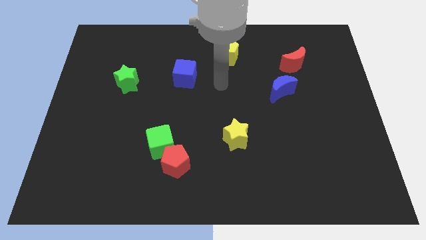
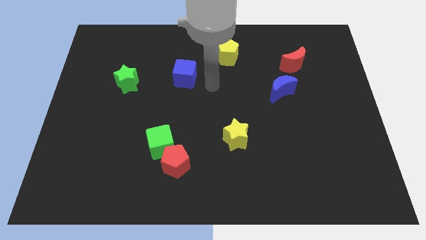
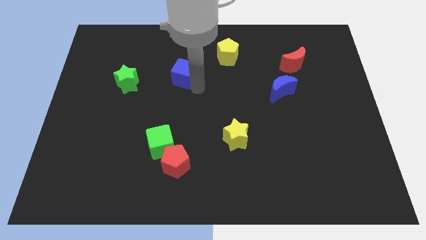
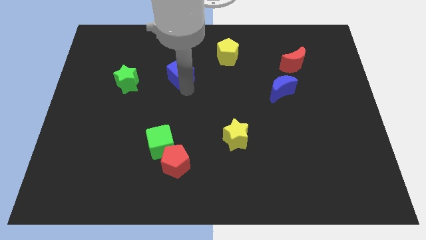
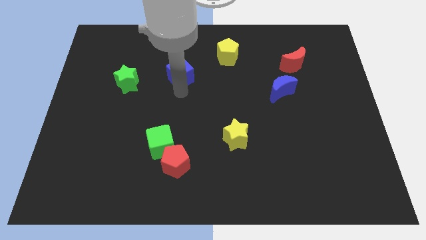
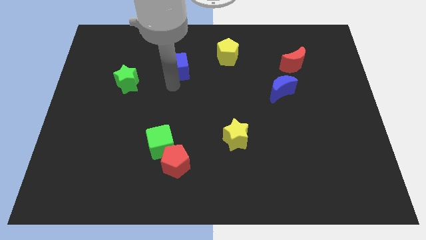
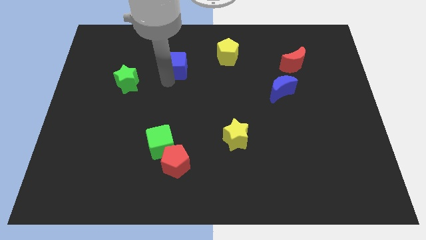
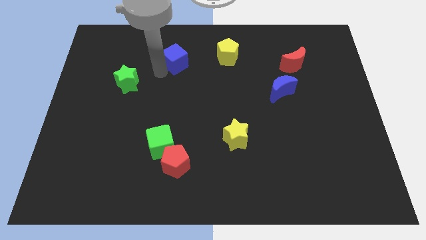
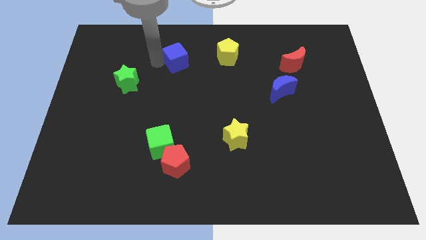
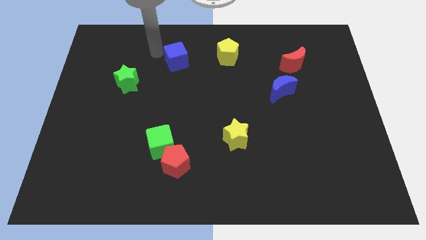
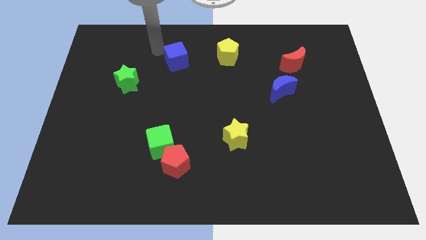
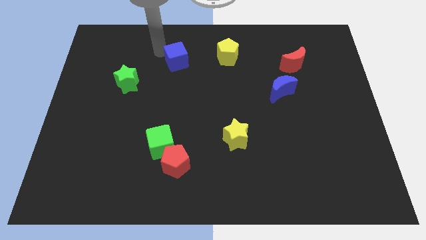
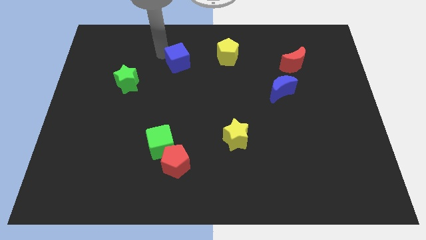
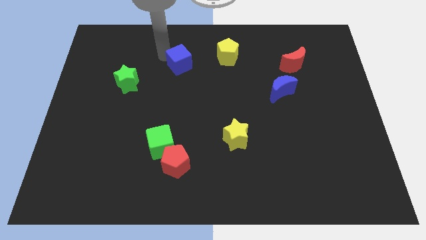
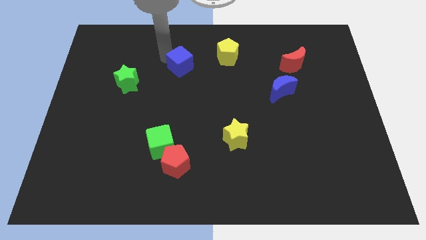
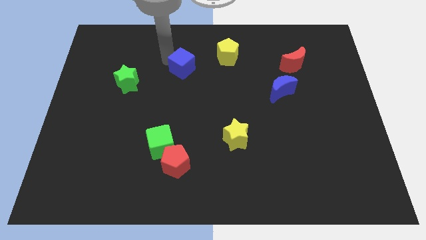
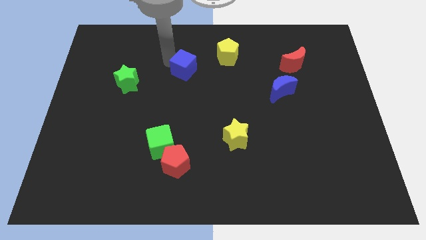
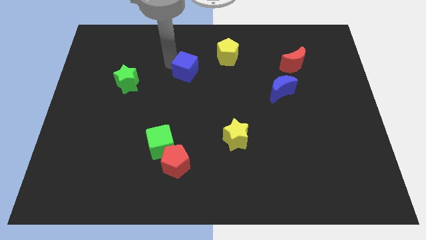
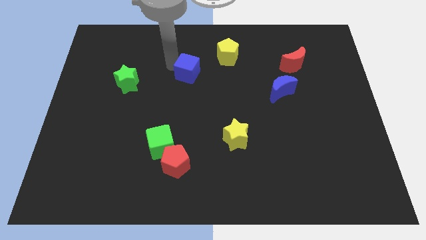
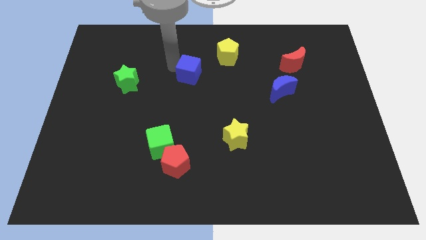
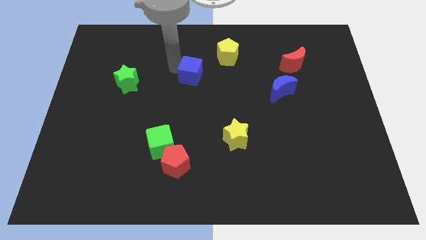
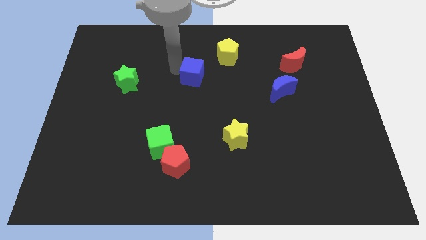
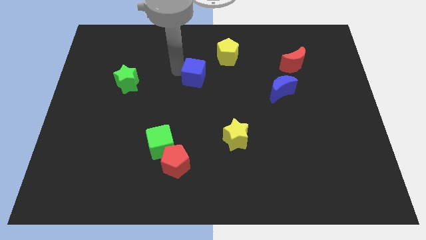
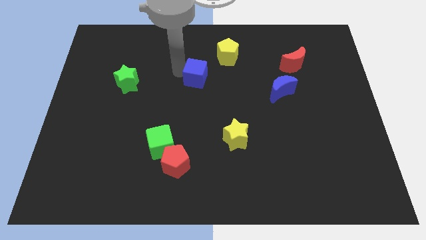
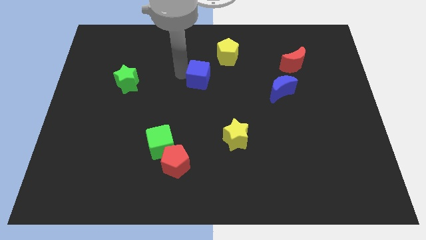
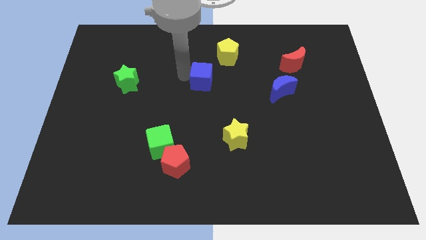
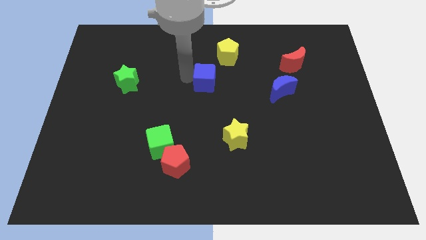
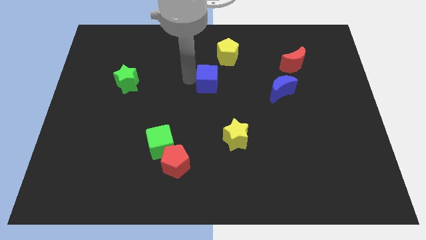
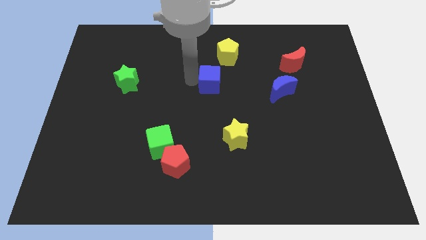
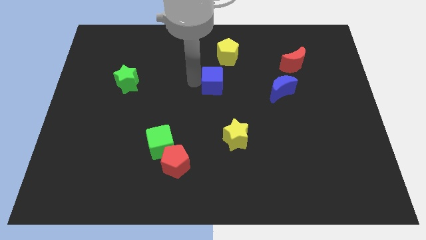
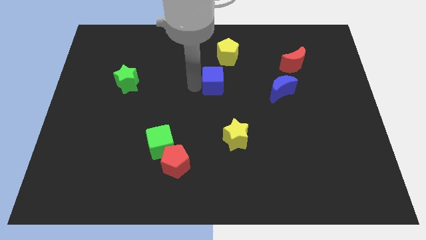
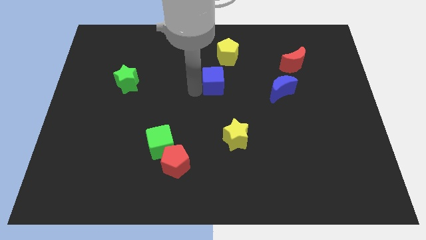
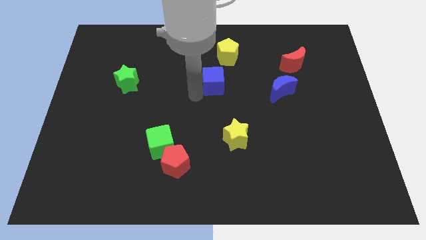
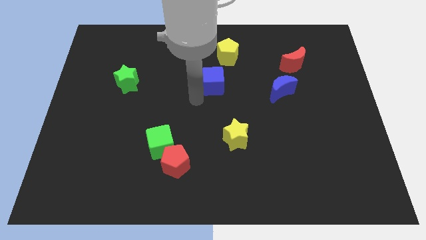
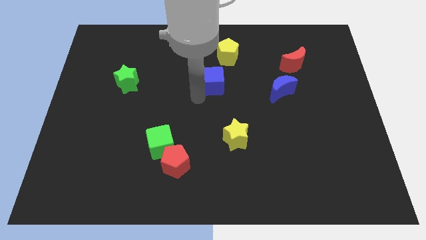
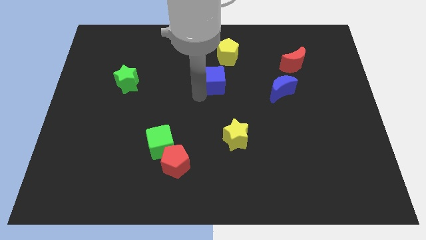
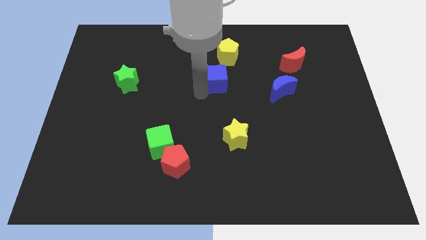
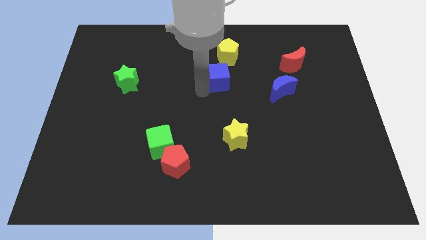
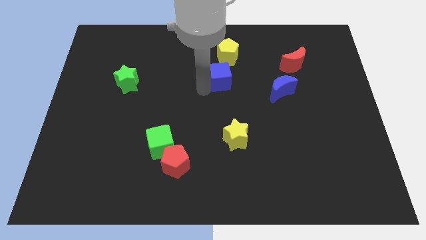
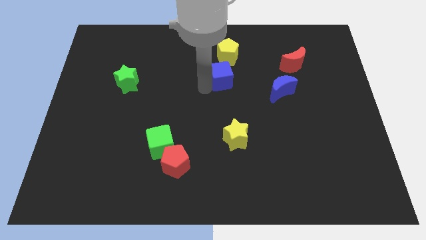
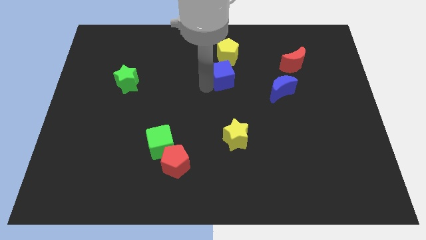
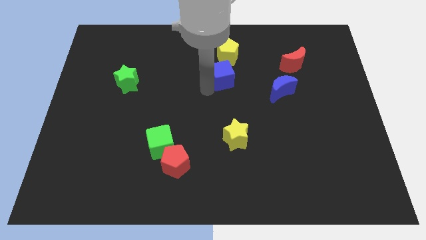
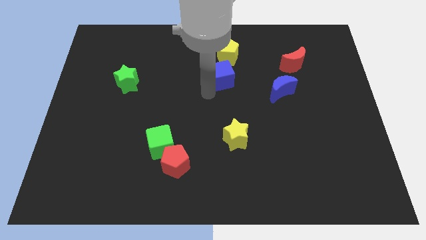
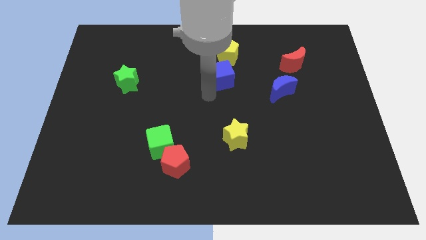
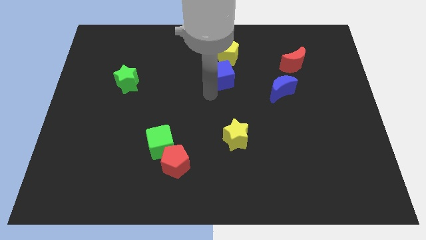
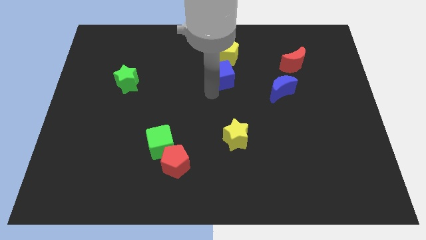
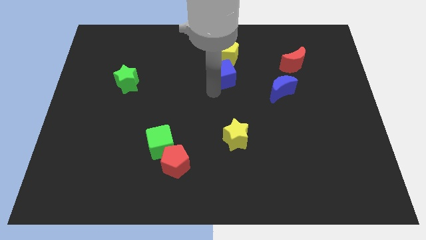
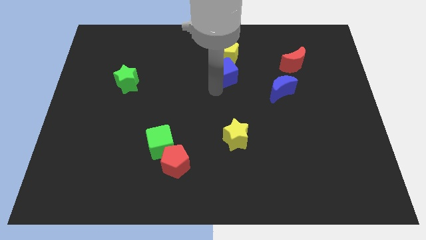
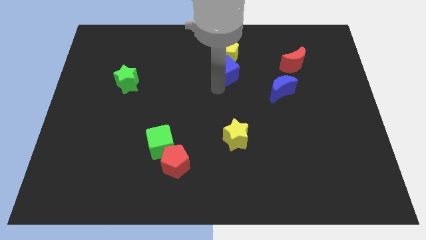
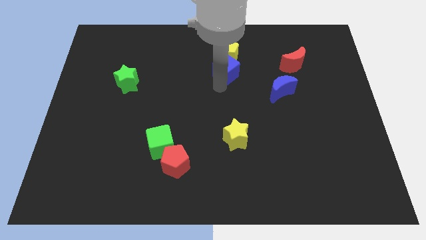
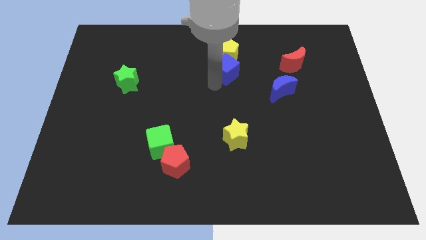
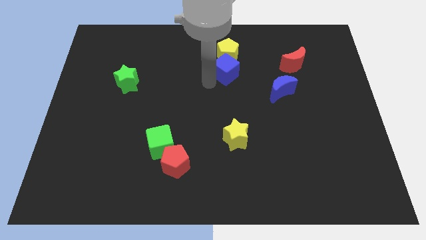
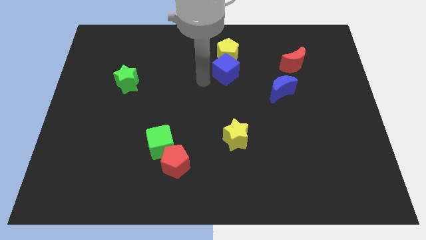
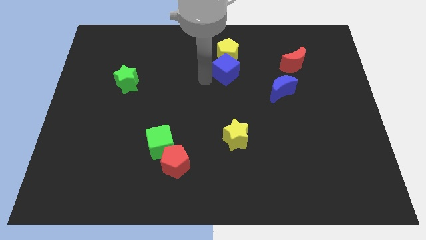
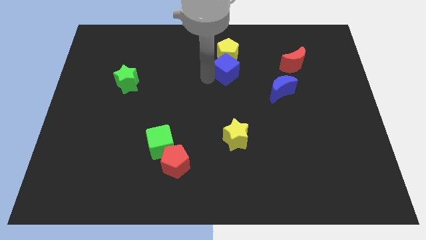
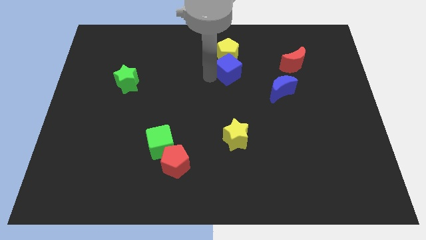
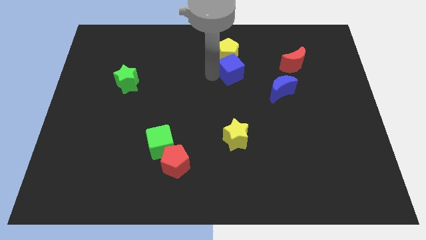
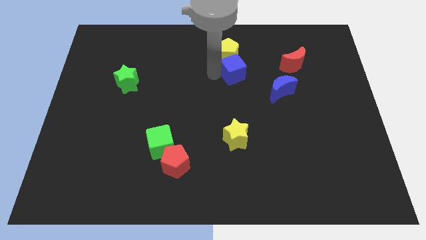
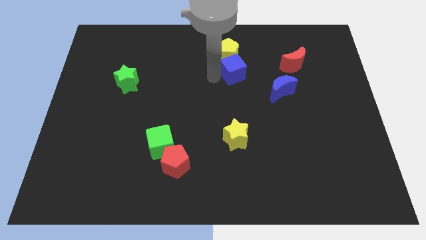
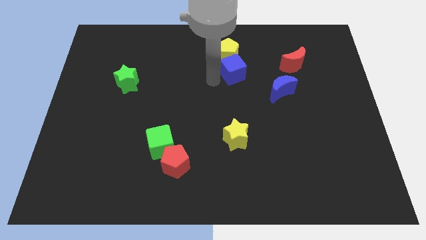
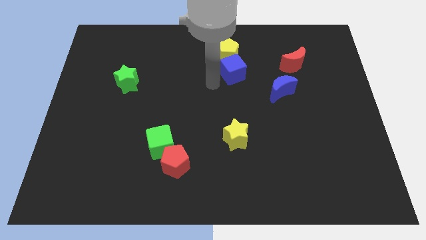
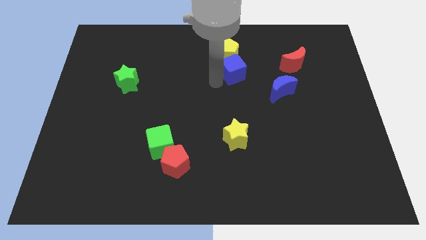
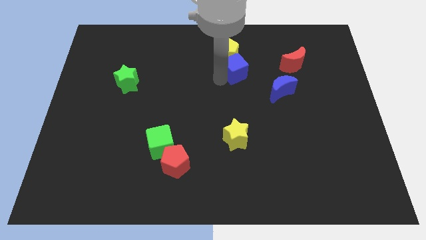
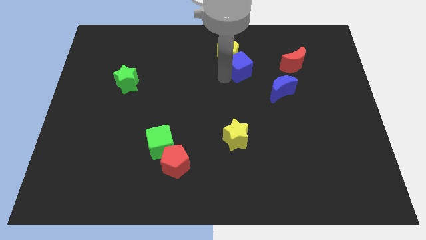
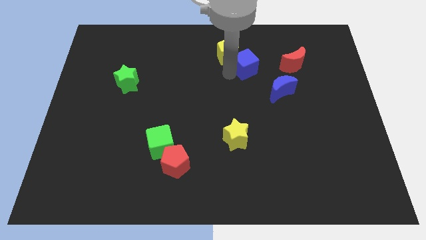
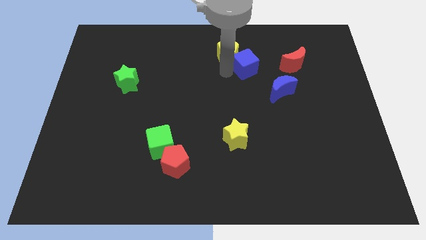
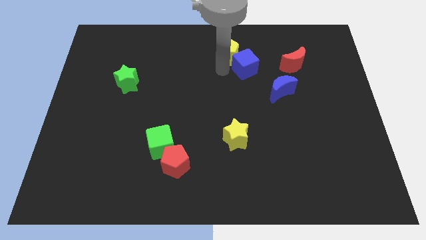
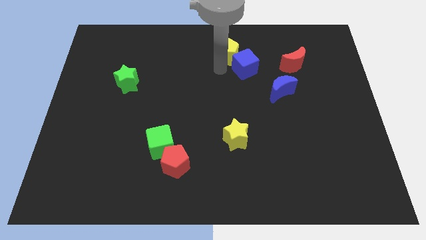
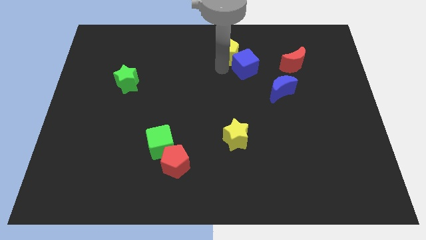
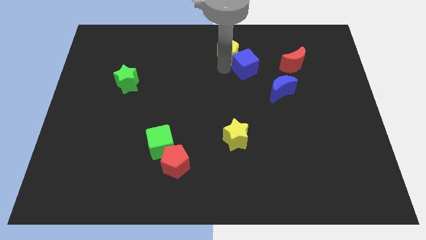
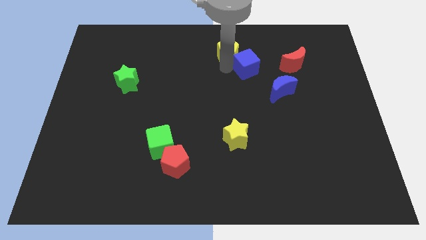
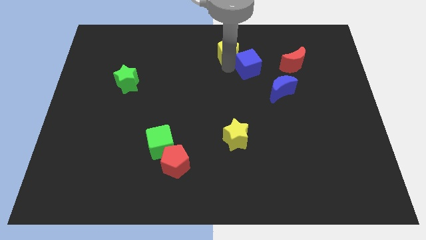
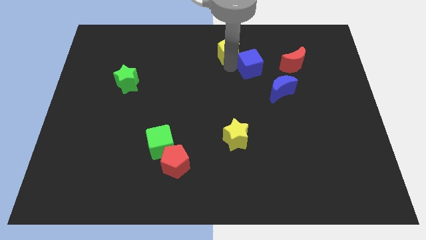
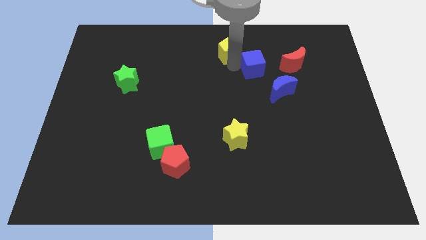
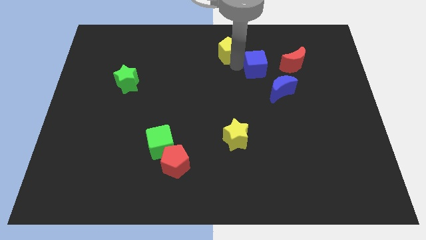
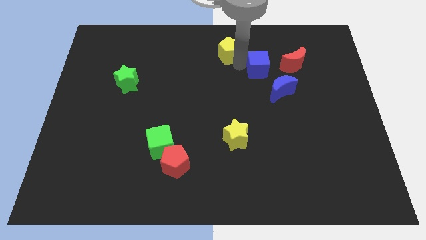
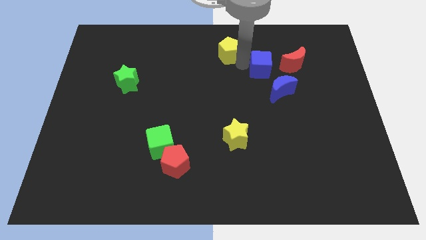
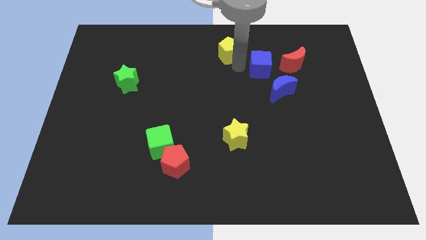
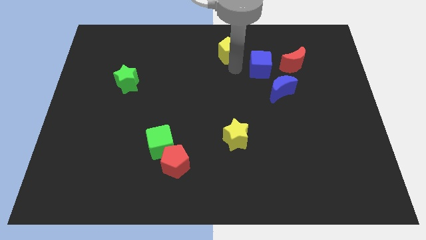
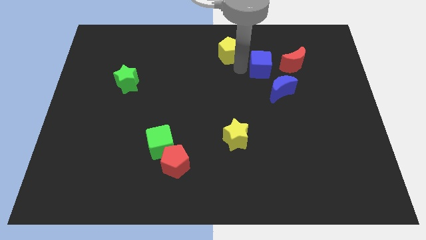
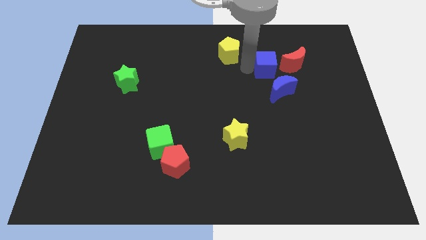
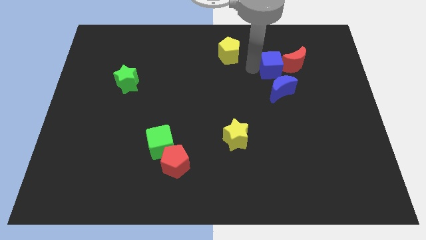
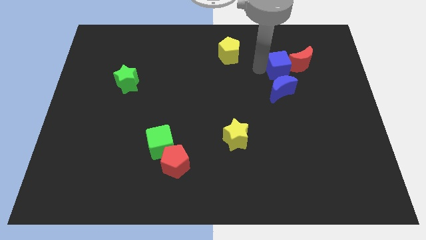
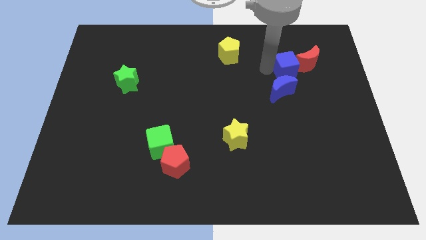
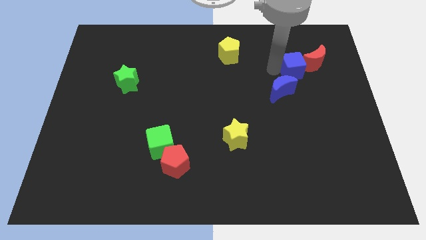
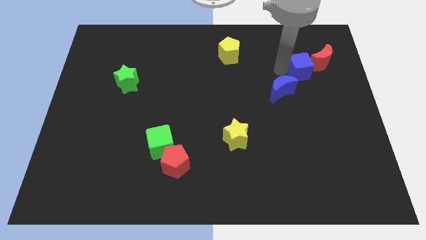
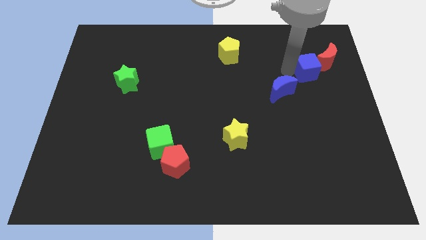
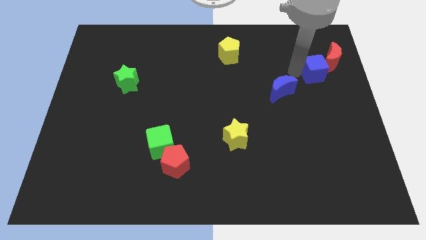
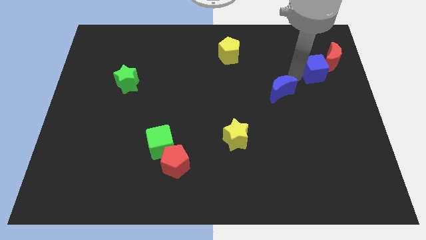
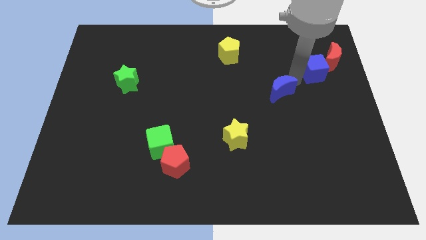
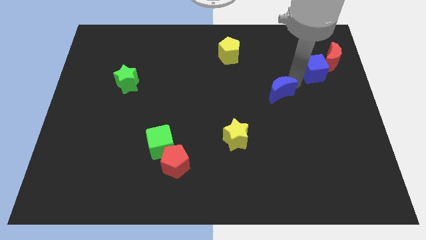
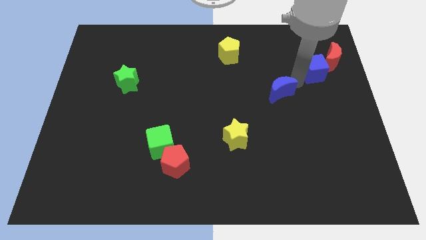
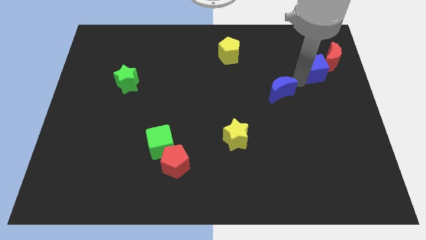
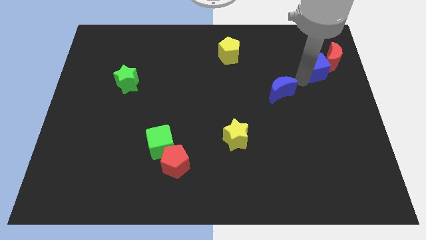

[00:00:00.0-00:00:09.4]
slide the blue cube to the red moon
